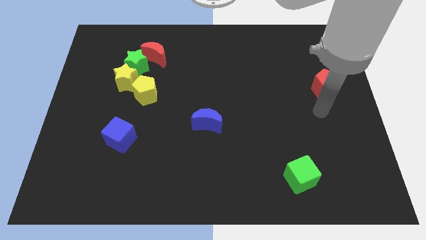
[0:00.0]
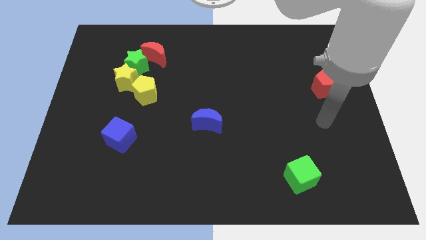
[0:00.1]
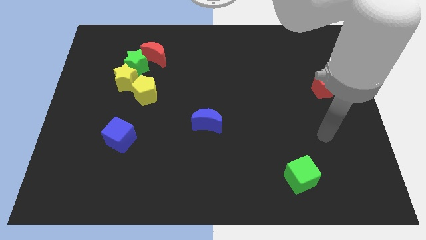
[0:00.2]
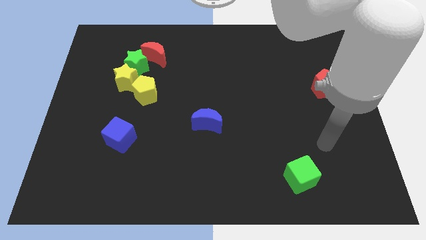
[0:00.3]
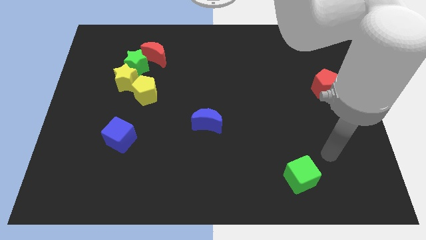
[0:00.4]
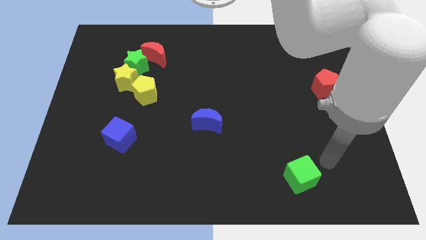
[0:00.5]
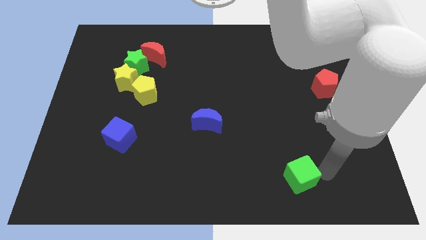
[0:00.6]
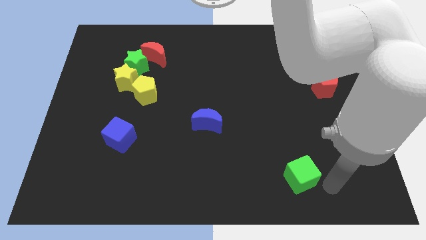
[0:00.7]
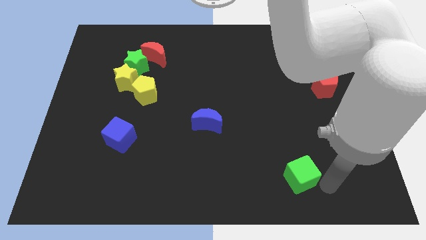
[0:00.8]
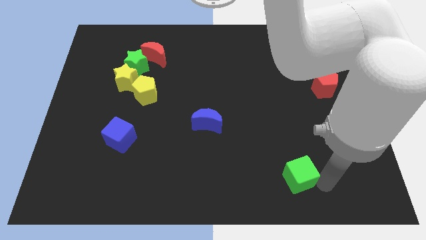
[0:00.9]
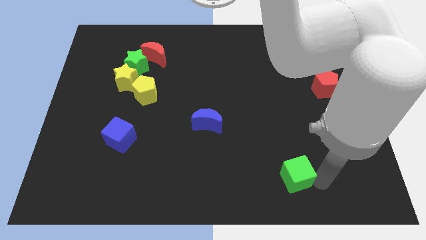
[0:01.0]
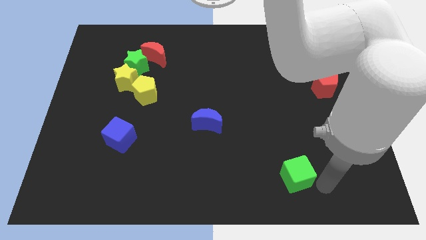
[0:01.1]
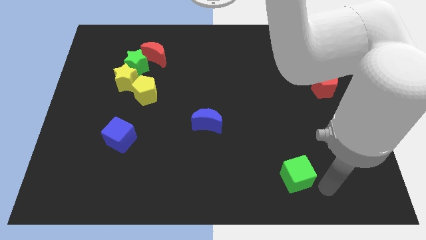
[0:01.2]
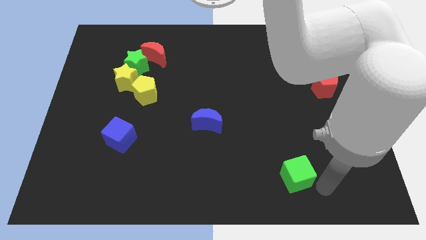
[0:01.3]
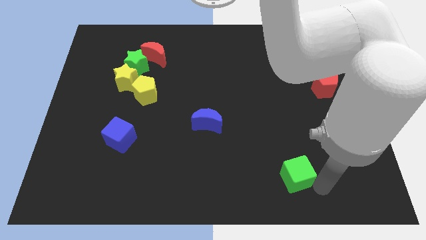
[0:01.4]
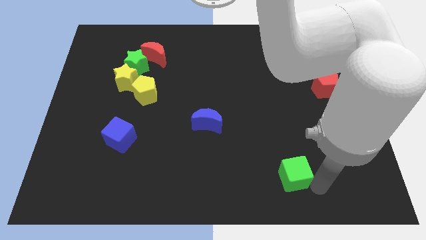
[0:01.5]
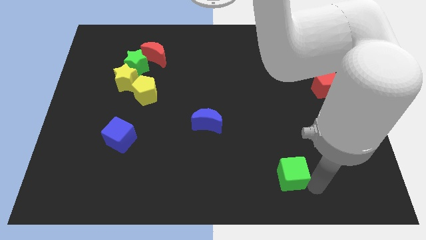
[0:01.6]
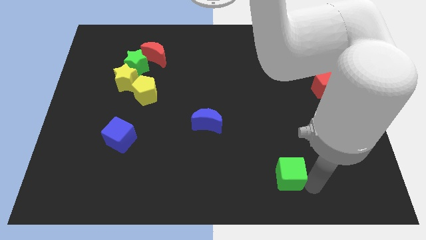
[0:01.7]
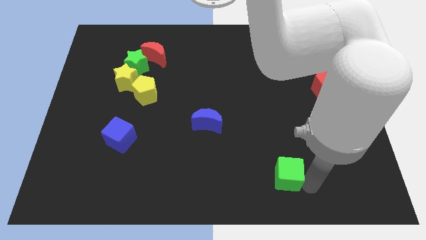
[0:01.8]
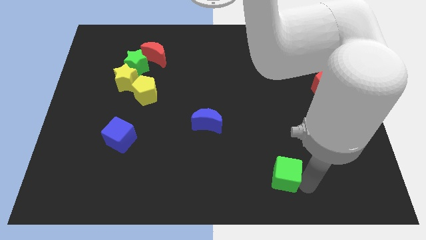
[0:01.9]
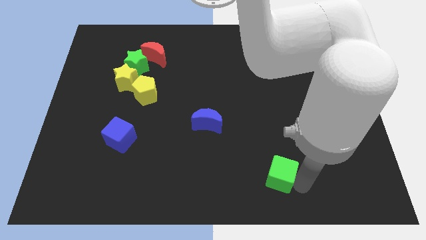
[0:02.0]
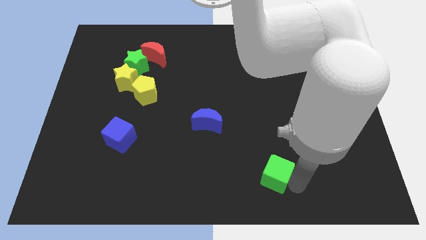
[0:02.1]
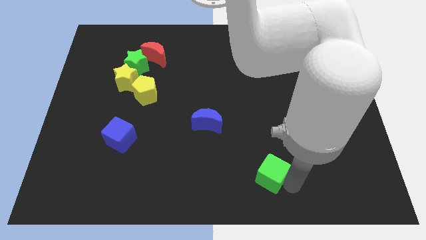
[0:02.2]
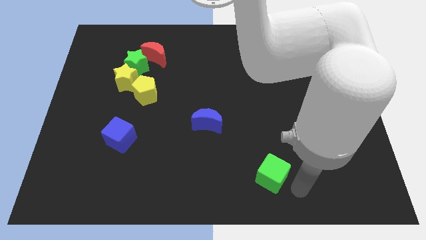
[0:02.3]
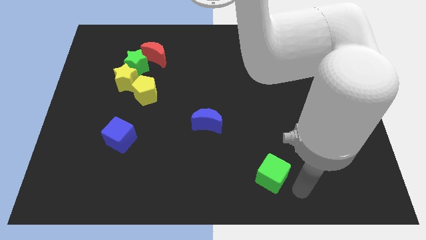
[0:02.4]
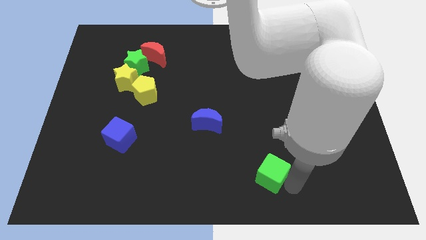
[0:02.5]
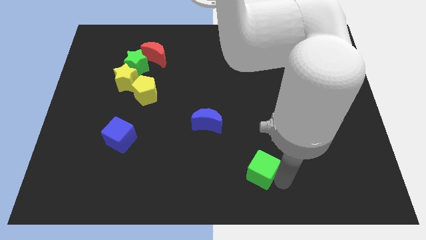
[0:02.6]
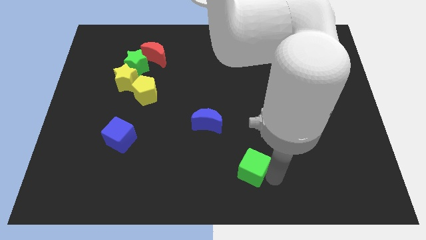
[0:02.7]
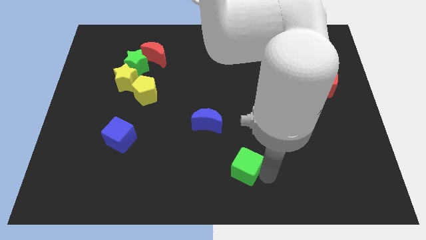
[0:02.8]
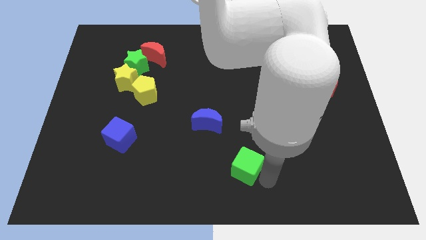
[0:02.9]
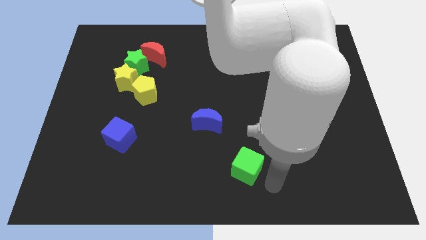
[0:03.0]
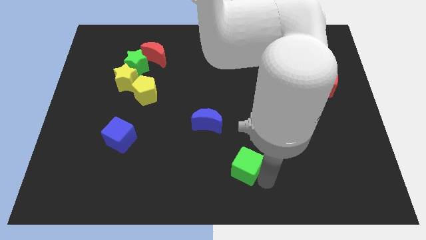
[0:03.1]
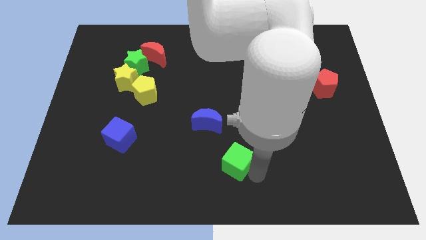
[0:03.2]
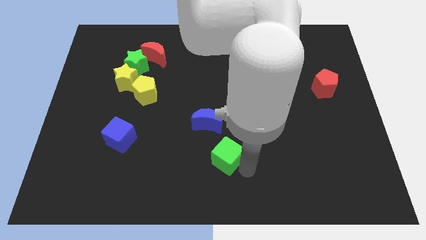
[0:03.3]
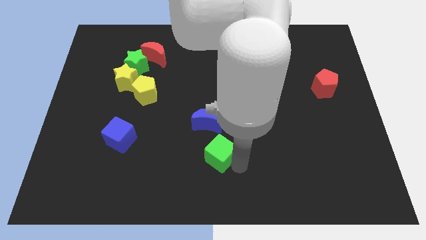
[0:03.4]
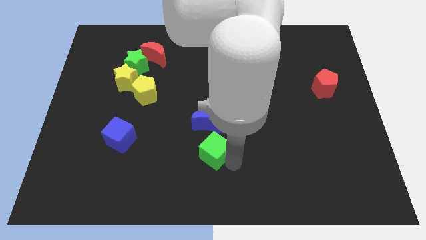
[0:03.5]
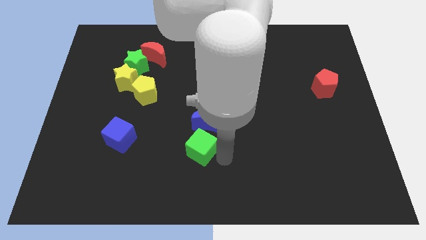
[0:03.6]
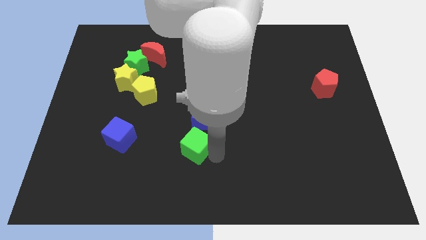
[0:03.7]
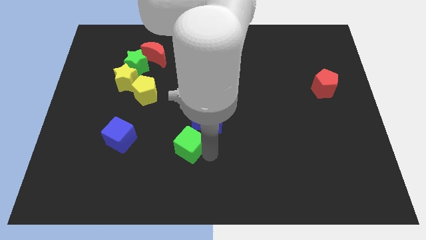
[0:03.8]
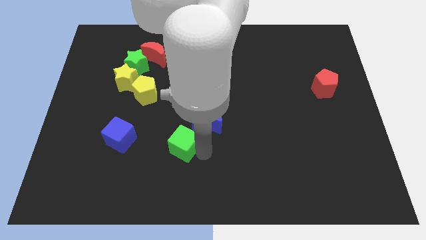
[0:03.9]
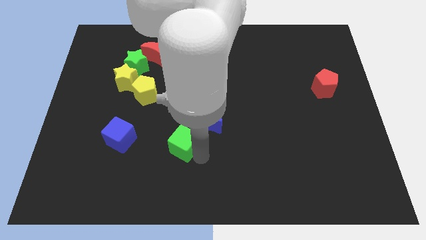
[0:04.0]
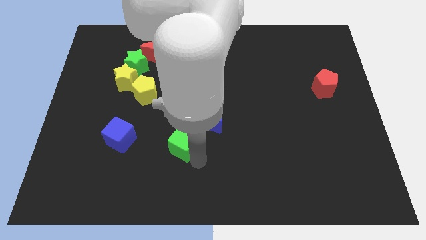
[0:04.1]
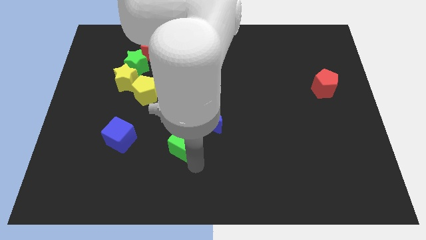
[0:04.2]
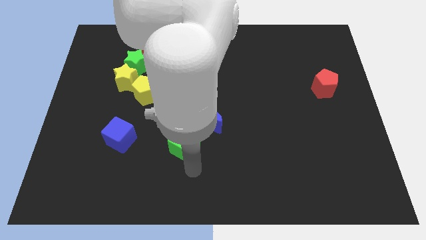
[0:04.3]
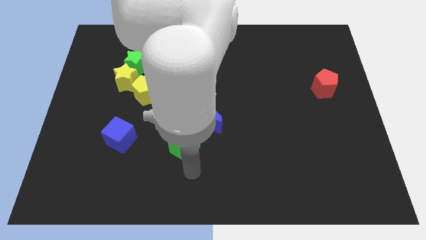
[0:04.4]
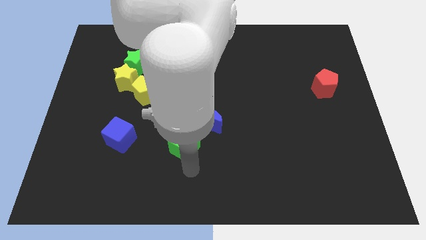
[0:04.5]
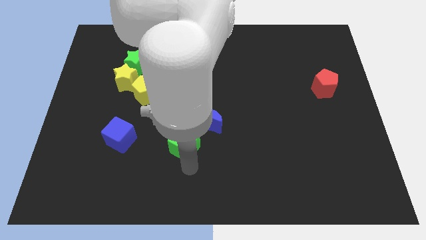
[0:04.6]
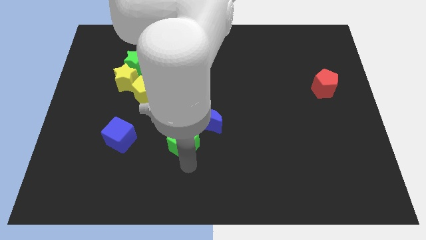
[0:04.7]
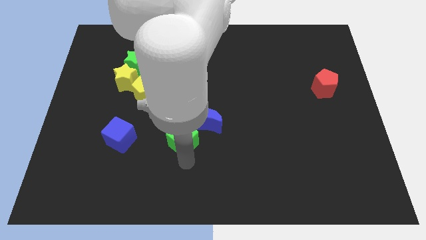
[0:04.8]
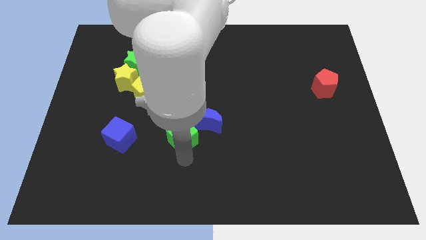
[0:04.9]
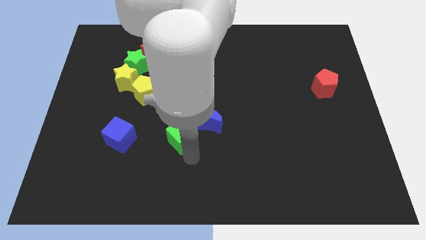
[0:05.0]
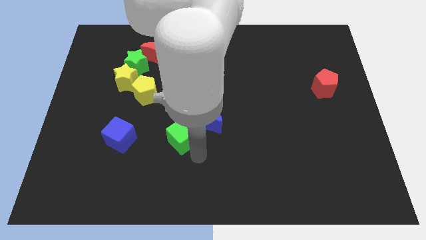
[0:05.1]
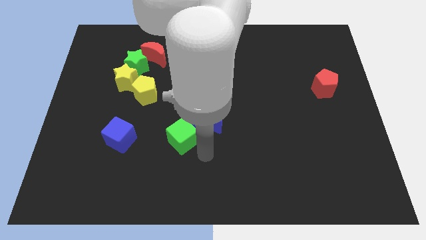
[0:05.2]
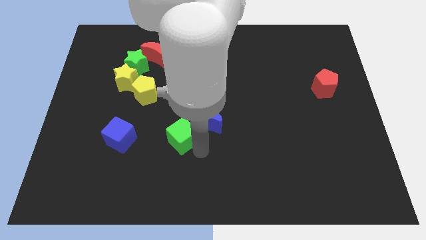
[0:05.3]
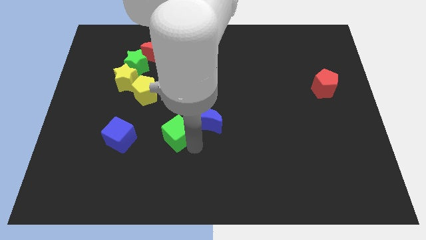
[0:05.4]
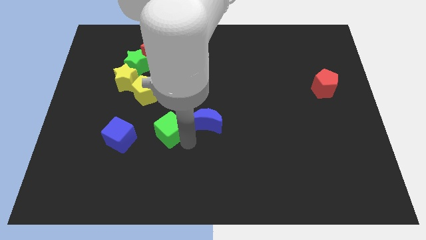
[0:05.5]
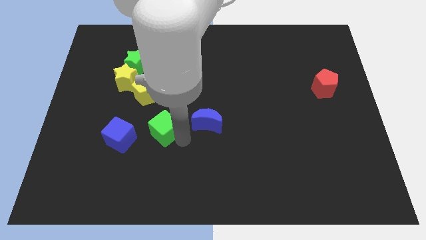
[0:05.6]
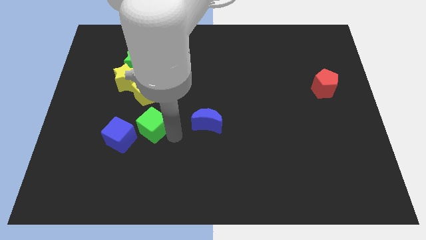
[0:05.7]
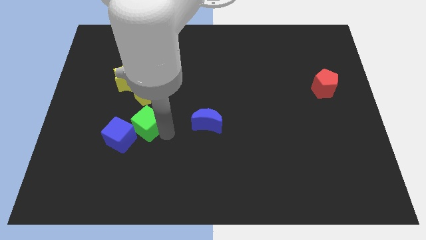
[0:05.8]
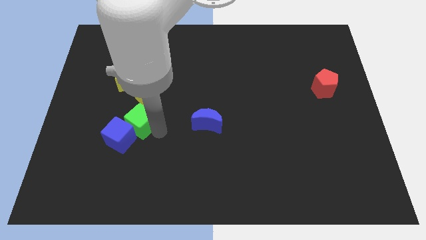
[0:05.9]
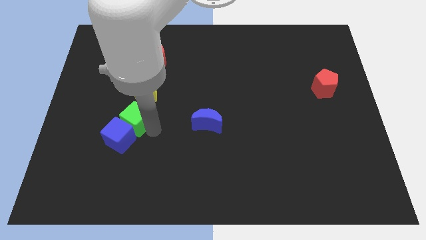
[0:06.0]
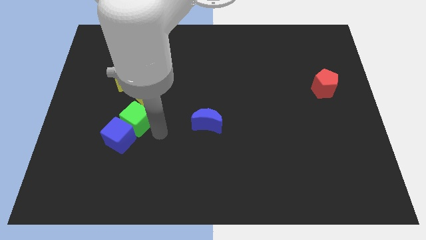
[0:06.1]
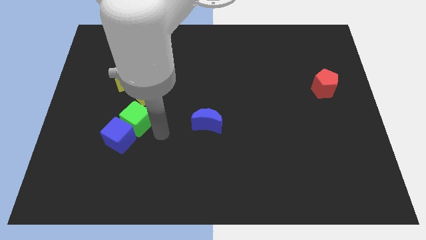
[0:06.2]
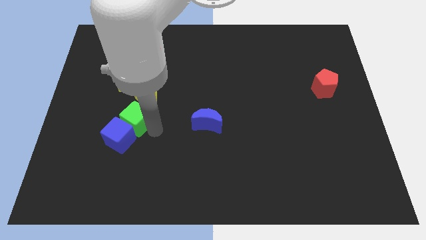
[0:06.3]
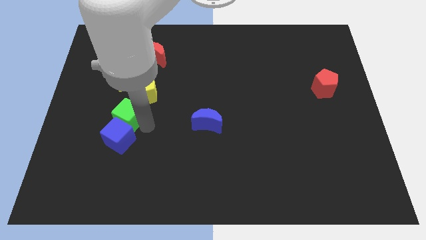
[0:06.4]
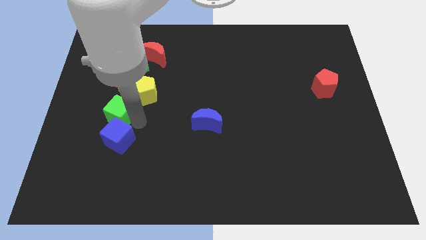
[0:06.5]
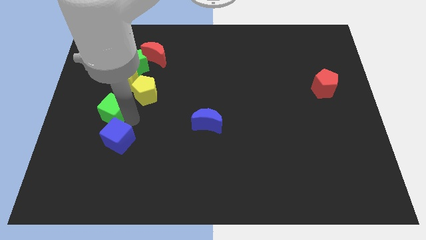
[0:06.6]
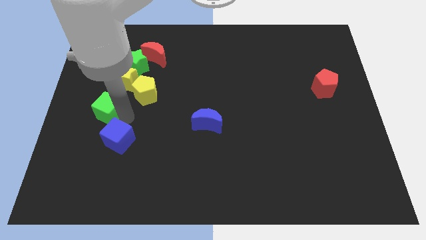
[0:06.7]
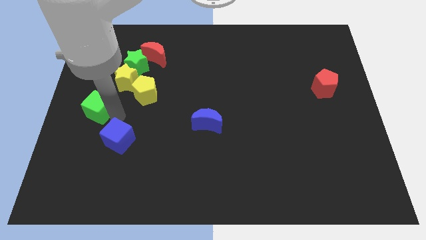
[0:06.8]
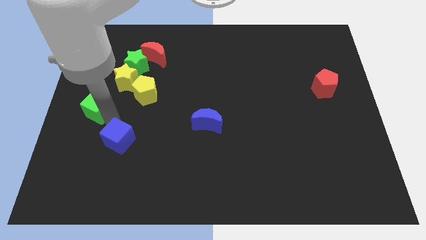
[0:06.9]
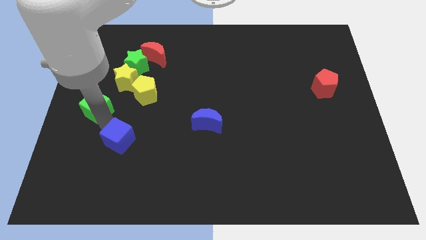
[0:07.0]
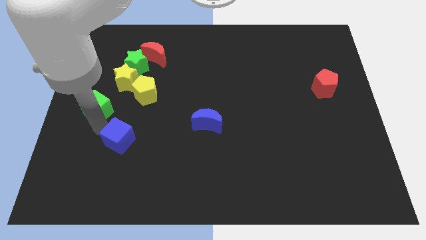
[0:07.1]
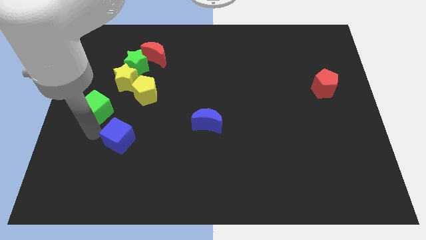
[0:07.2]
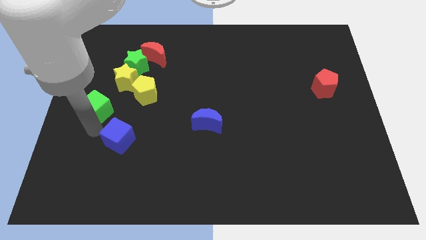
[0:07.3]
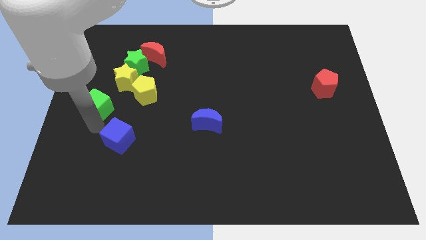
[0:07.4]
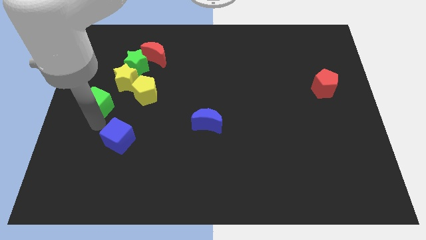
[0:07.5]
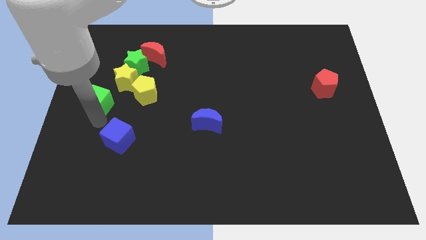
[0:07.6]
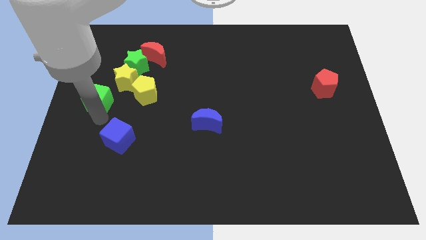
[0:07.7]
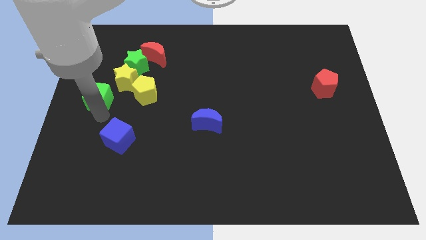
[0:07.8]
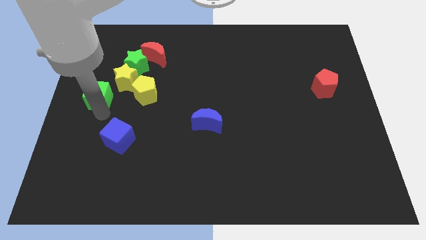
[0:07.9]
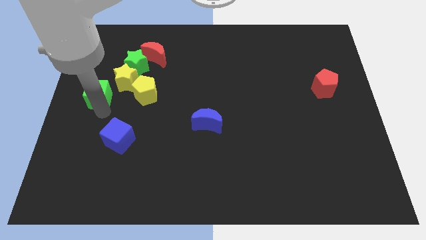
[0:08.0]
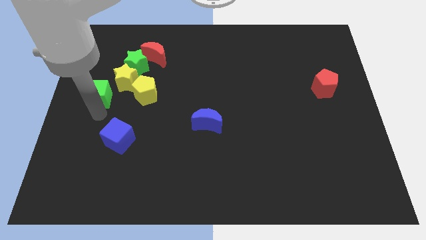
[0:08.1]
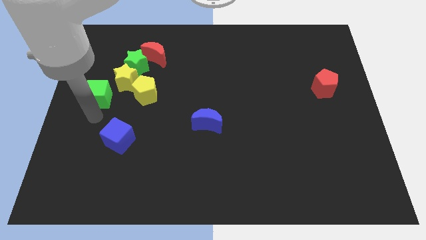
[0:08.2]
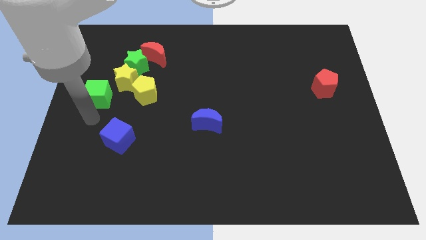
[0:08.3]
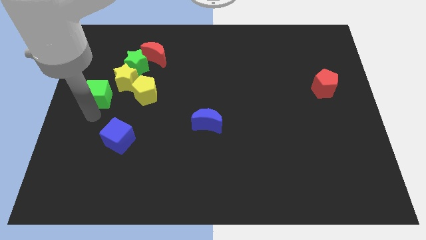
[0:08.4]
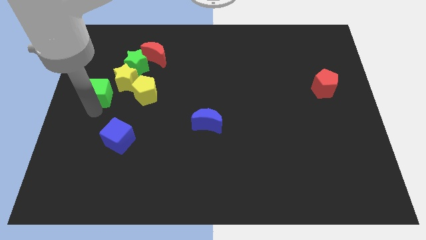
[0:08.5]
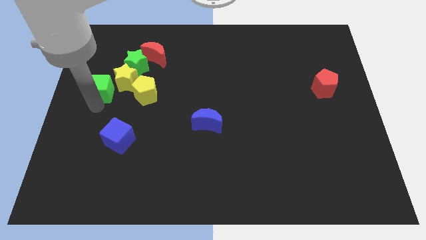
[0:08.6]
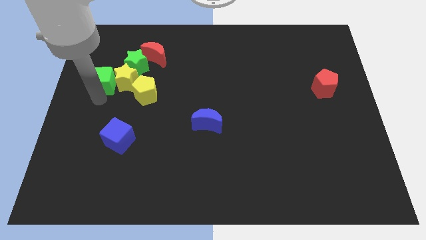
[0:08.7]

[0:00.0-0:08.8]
slide the green cube to the top left of the yellow star
